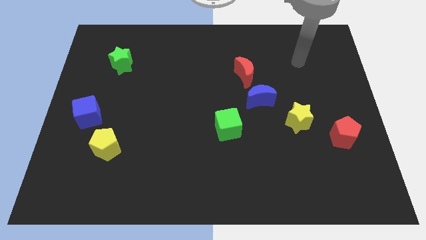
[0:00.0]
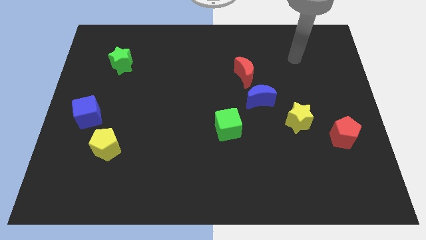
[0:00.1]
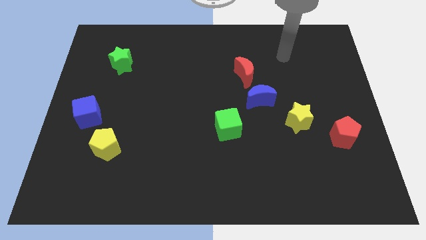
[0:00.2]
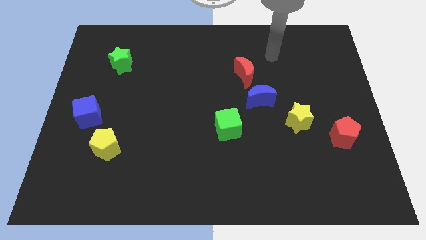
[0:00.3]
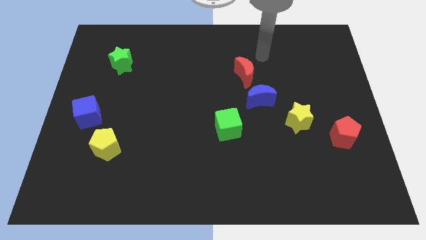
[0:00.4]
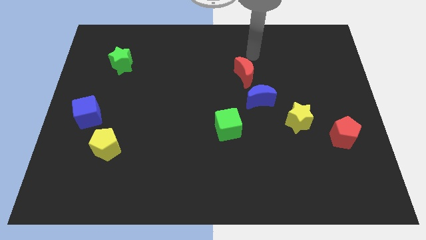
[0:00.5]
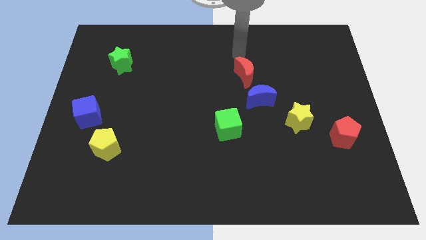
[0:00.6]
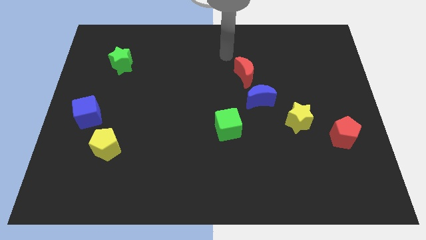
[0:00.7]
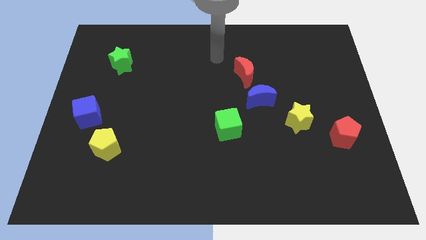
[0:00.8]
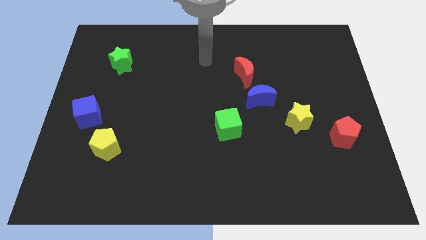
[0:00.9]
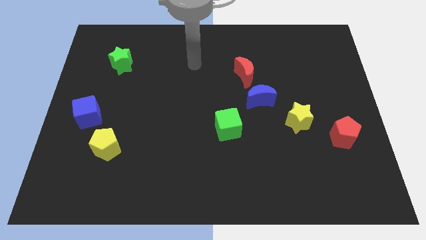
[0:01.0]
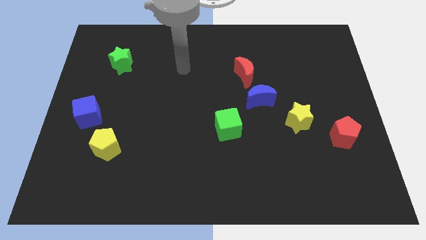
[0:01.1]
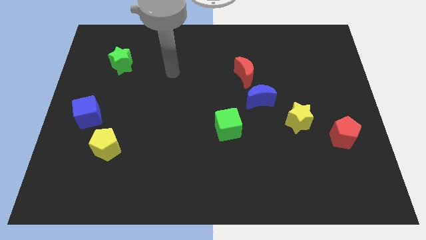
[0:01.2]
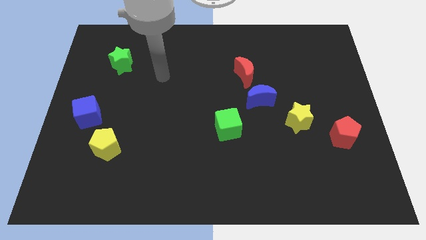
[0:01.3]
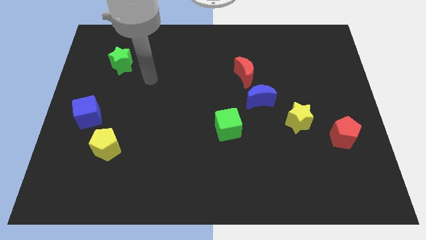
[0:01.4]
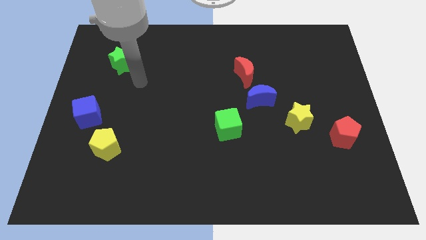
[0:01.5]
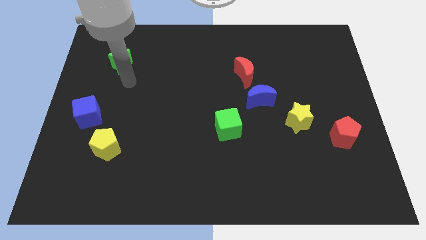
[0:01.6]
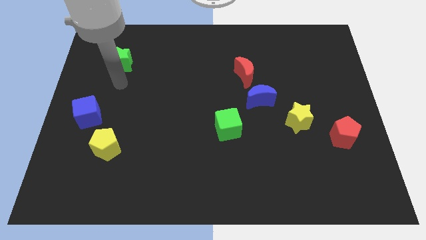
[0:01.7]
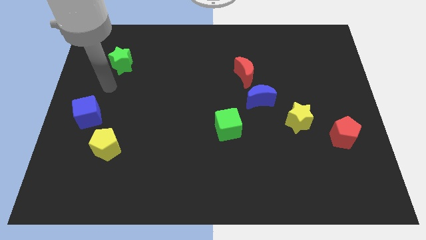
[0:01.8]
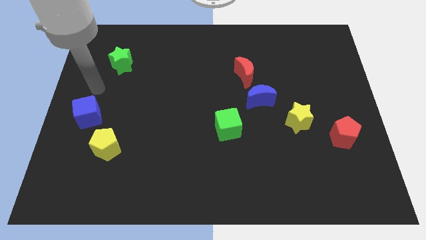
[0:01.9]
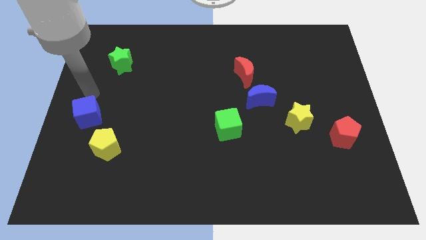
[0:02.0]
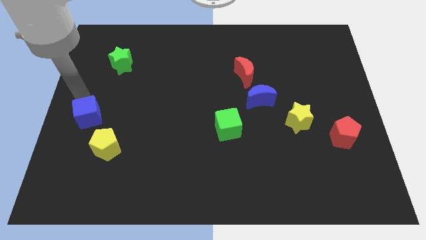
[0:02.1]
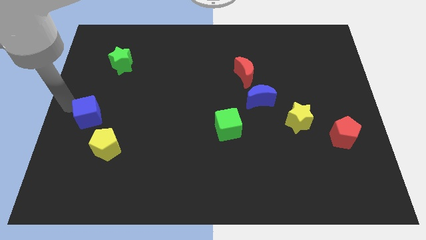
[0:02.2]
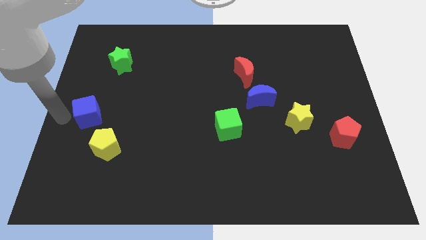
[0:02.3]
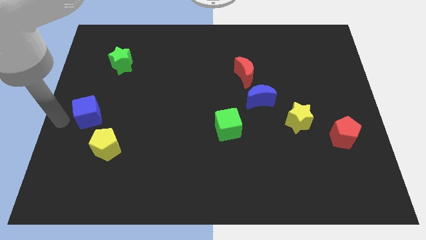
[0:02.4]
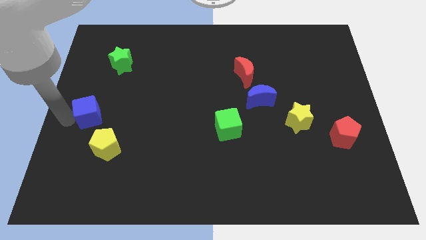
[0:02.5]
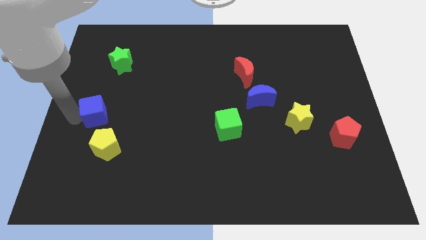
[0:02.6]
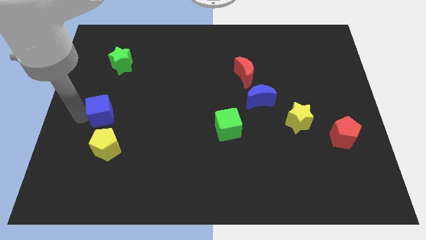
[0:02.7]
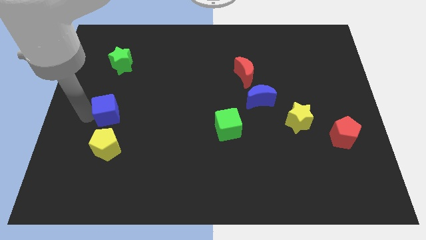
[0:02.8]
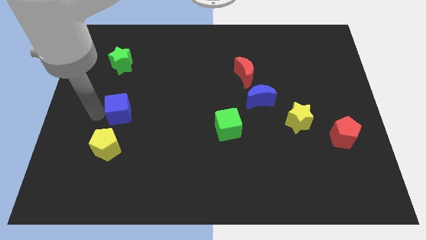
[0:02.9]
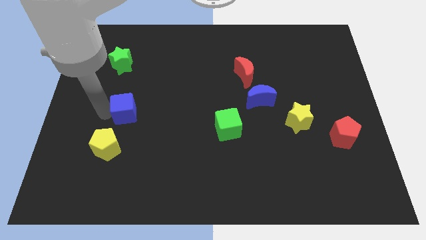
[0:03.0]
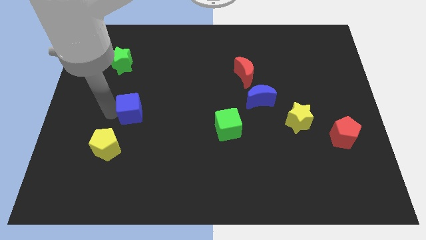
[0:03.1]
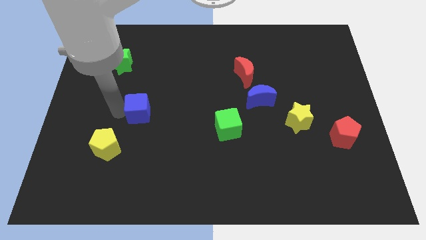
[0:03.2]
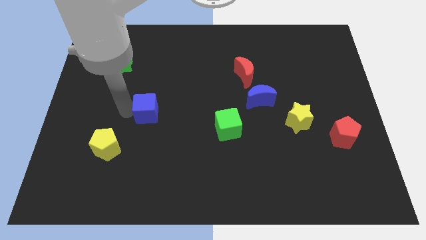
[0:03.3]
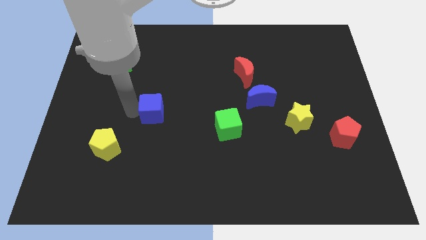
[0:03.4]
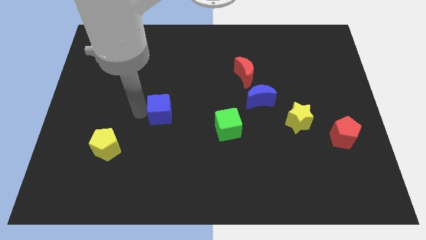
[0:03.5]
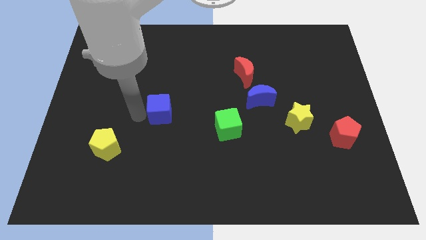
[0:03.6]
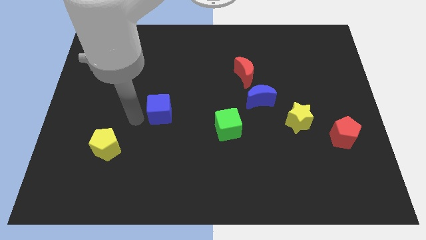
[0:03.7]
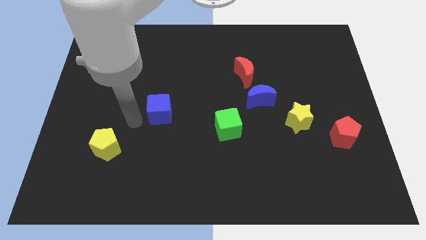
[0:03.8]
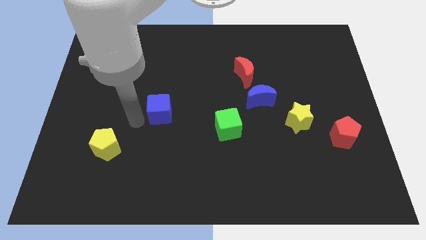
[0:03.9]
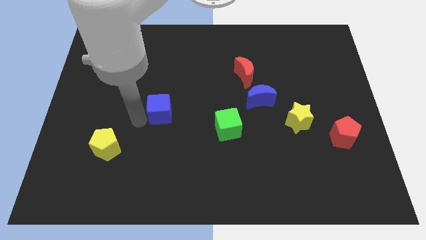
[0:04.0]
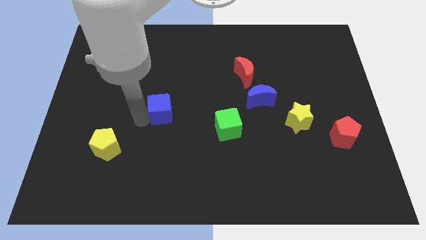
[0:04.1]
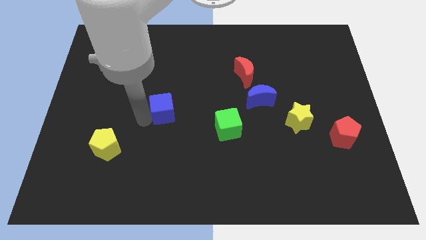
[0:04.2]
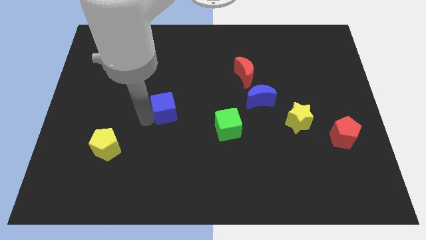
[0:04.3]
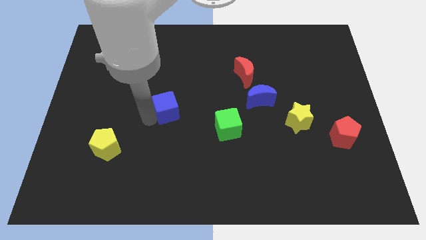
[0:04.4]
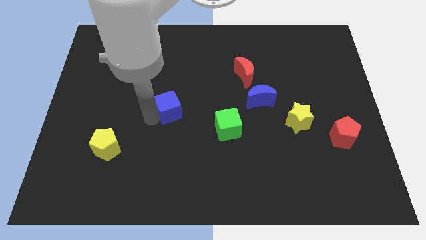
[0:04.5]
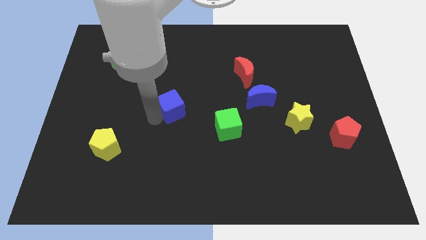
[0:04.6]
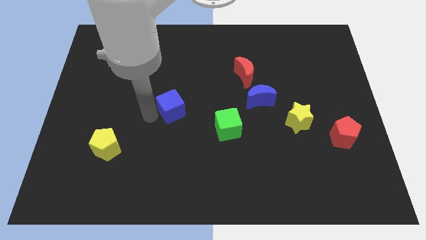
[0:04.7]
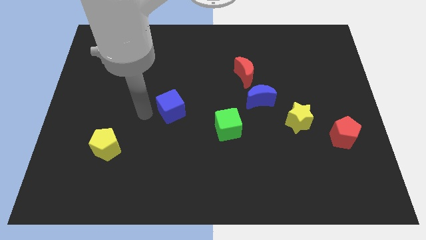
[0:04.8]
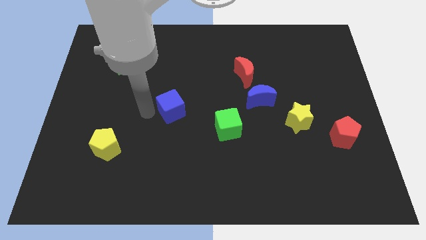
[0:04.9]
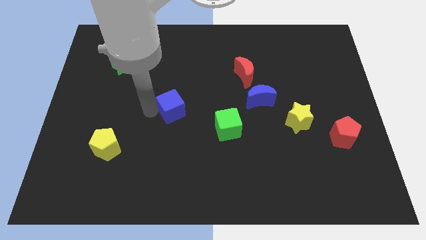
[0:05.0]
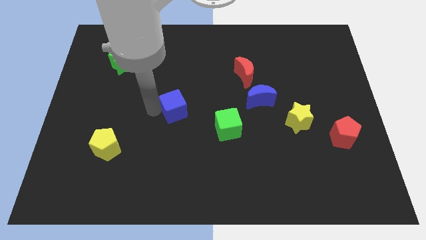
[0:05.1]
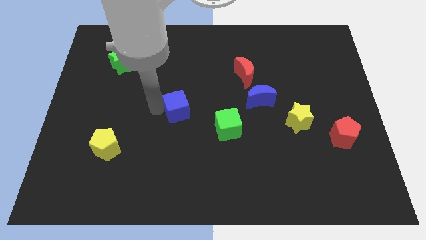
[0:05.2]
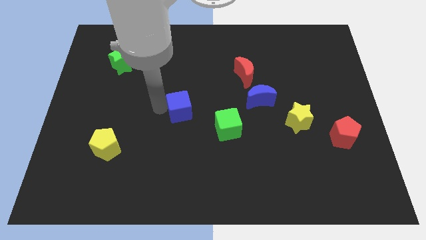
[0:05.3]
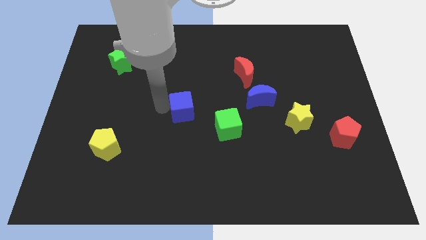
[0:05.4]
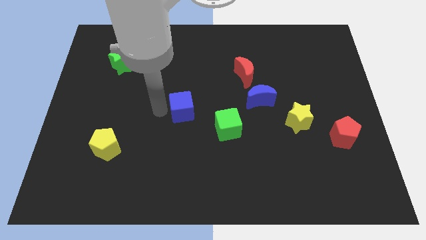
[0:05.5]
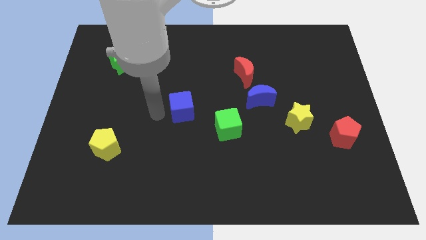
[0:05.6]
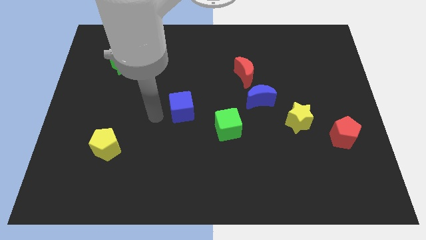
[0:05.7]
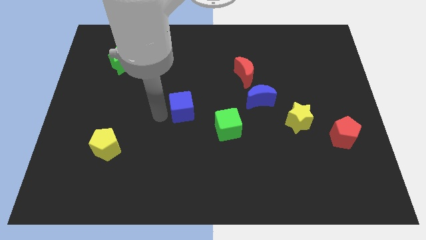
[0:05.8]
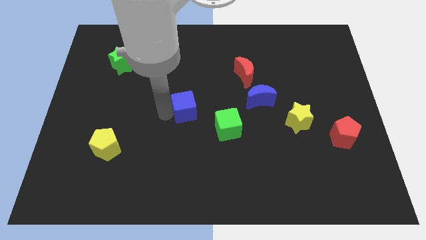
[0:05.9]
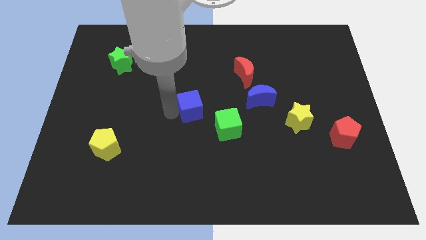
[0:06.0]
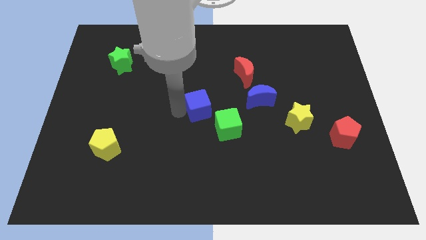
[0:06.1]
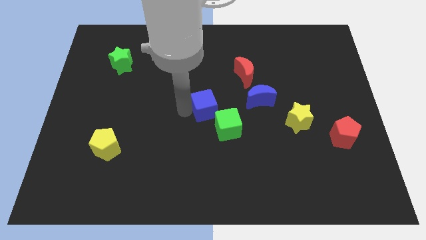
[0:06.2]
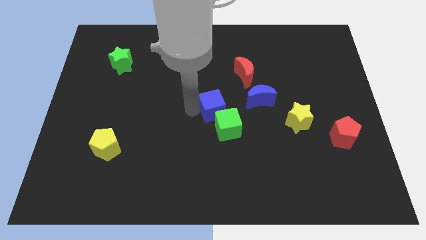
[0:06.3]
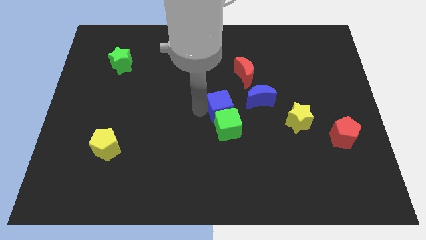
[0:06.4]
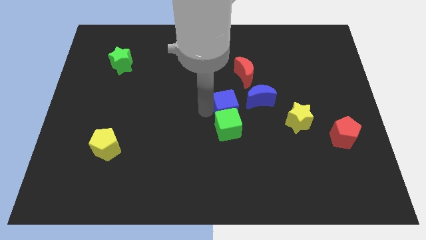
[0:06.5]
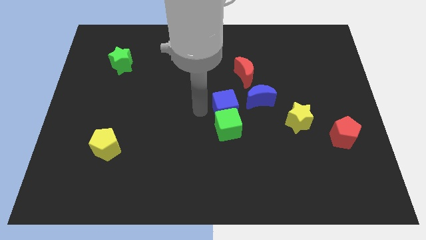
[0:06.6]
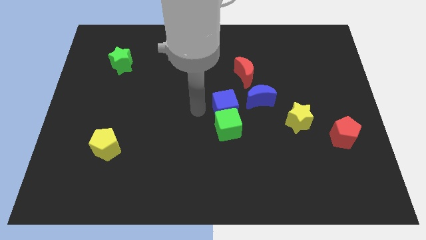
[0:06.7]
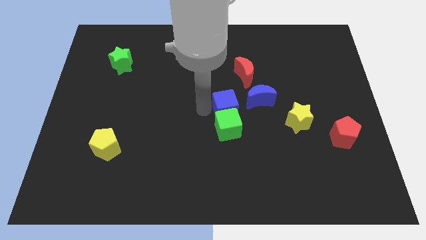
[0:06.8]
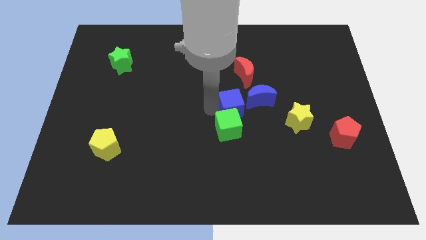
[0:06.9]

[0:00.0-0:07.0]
slide the blue cube below the red moon
